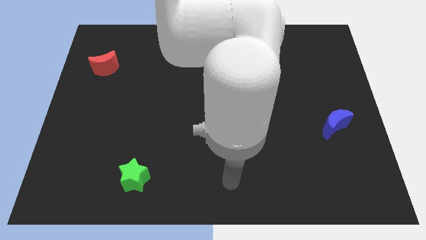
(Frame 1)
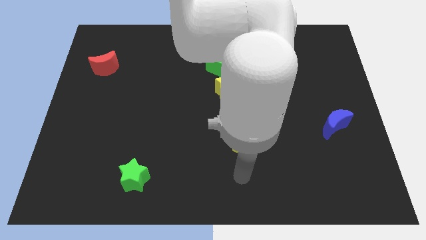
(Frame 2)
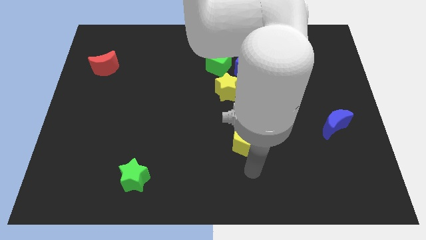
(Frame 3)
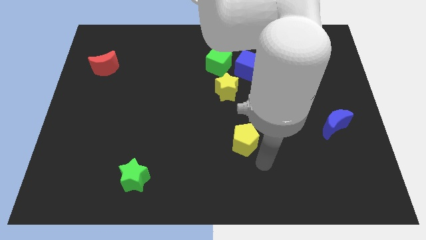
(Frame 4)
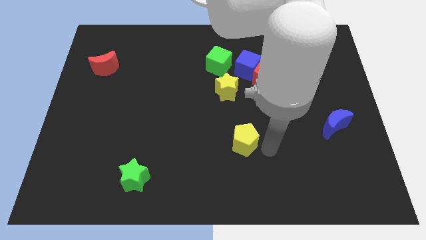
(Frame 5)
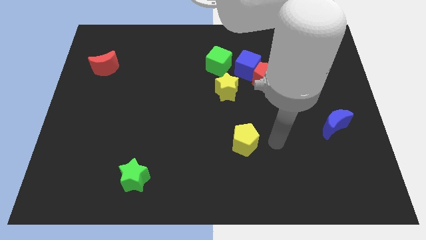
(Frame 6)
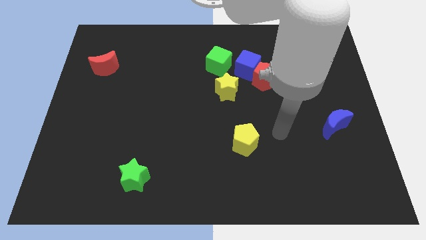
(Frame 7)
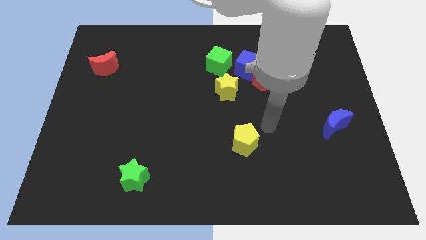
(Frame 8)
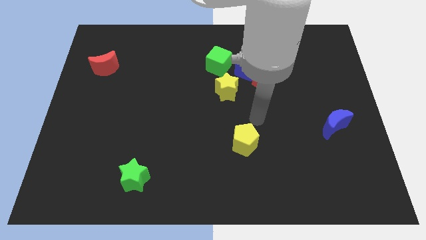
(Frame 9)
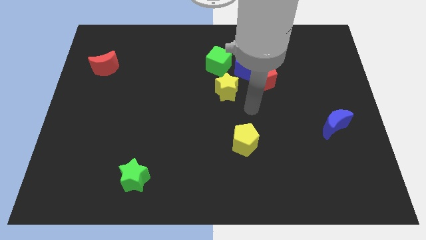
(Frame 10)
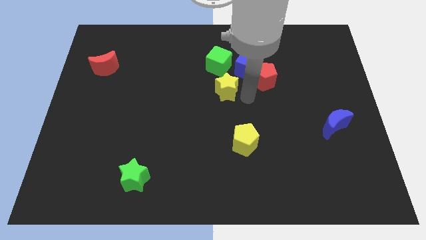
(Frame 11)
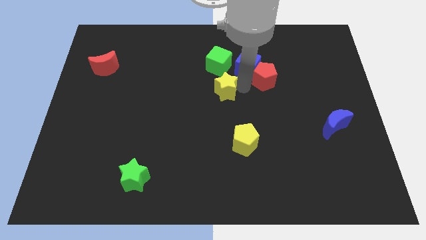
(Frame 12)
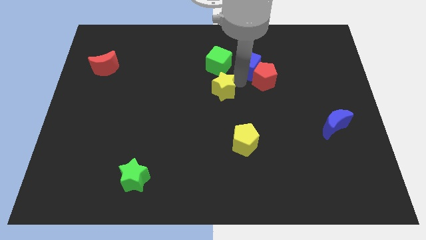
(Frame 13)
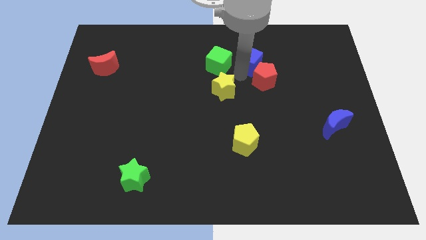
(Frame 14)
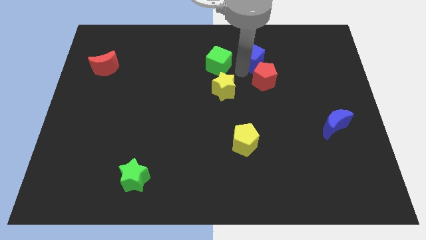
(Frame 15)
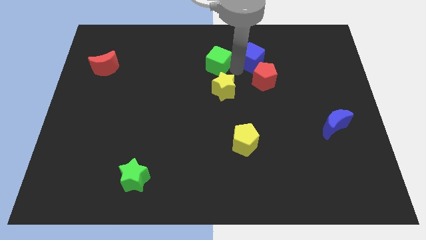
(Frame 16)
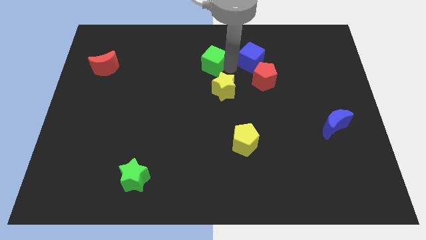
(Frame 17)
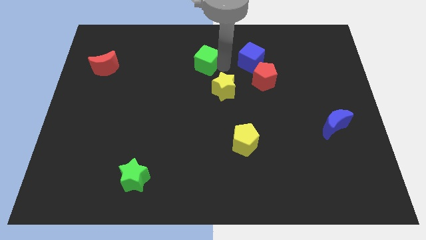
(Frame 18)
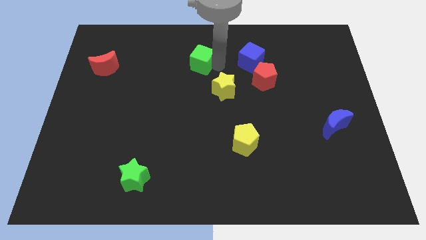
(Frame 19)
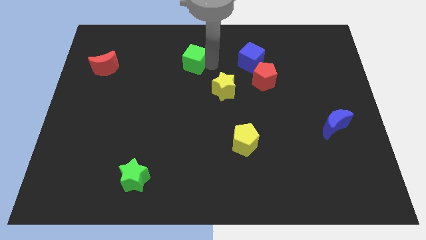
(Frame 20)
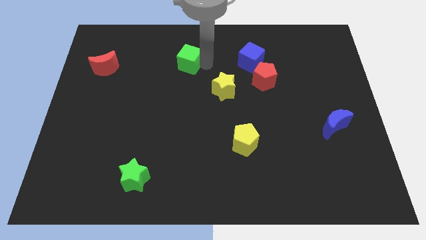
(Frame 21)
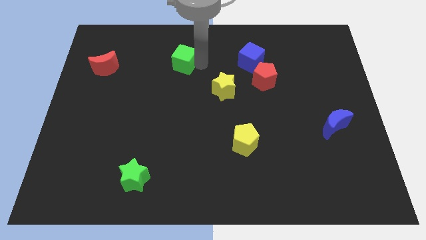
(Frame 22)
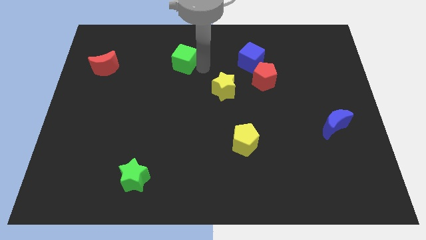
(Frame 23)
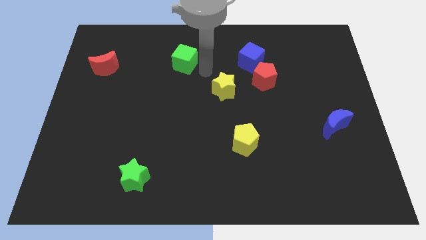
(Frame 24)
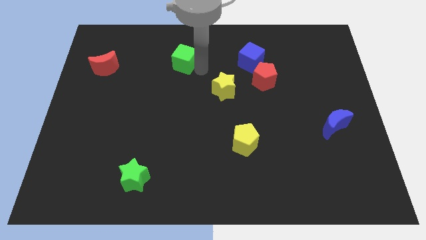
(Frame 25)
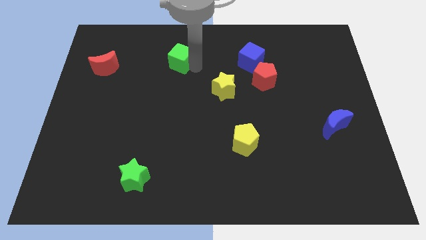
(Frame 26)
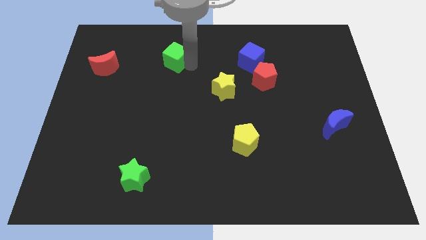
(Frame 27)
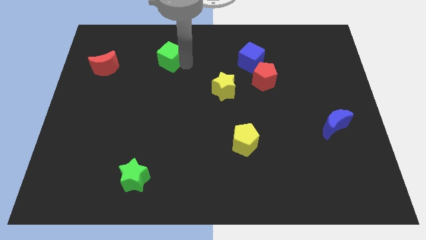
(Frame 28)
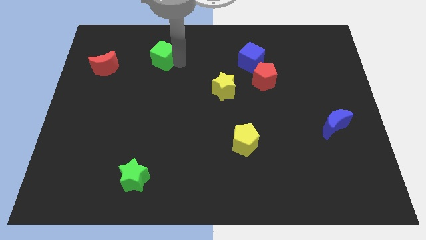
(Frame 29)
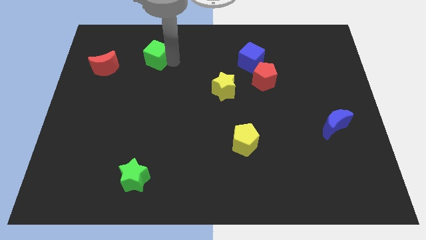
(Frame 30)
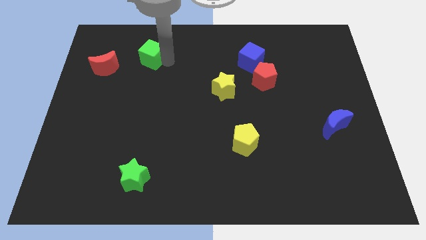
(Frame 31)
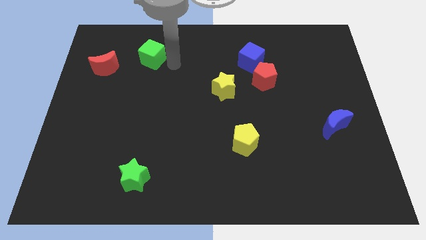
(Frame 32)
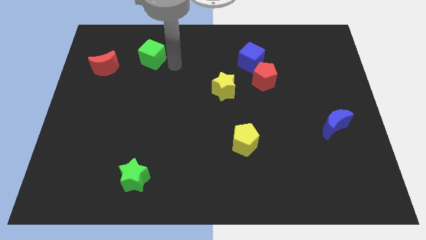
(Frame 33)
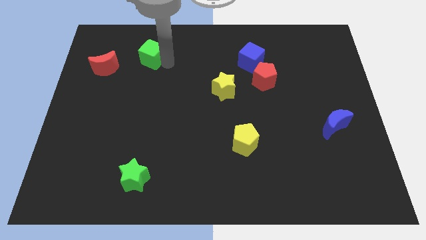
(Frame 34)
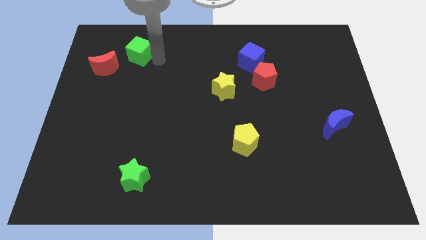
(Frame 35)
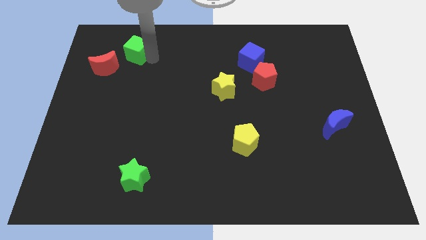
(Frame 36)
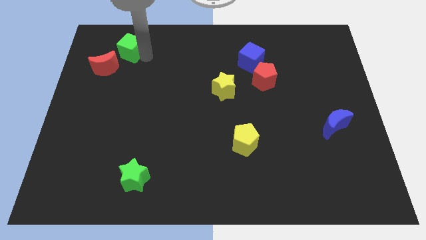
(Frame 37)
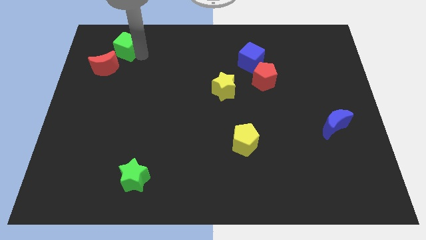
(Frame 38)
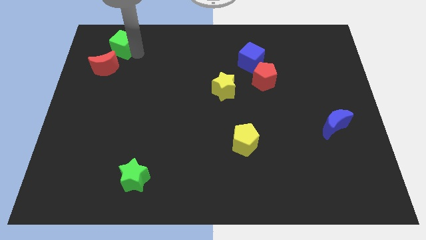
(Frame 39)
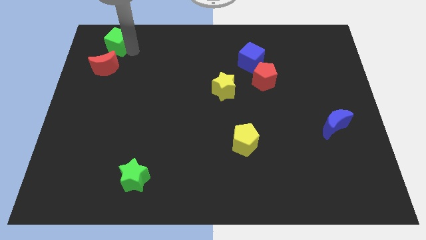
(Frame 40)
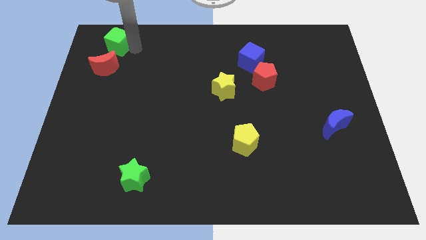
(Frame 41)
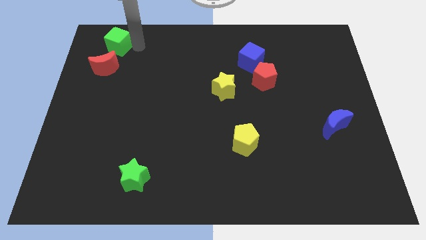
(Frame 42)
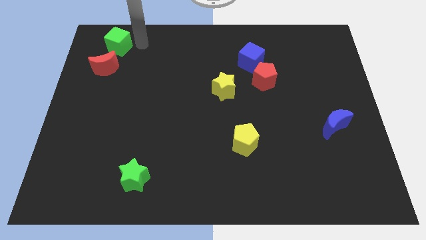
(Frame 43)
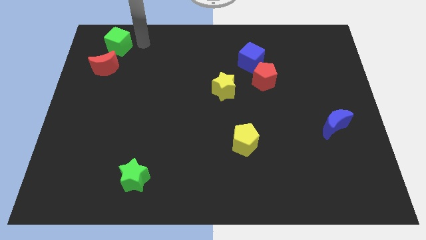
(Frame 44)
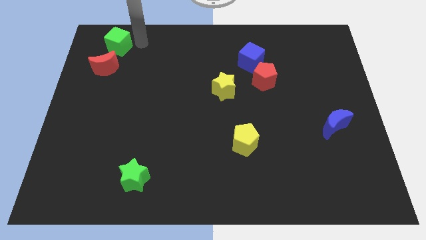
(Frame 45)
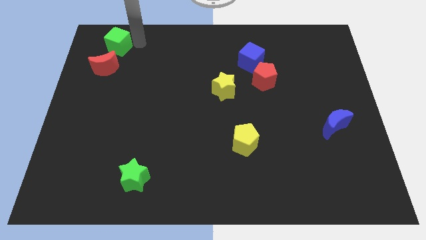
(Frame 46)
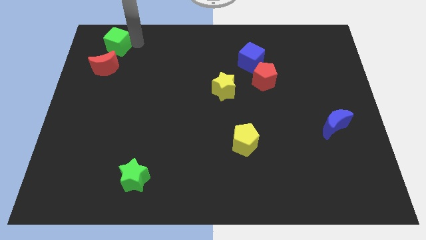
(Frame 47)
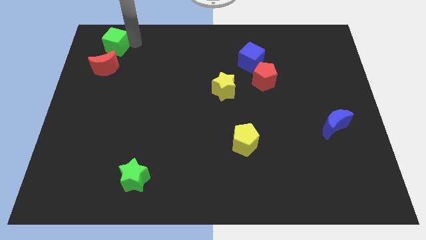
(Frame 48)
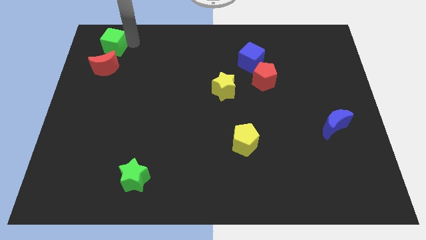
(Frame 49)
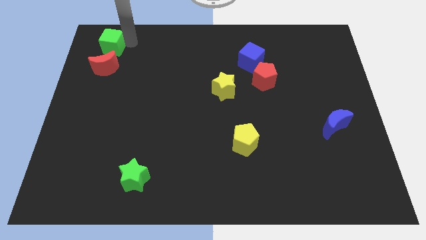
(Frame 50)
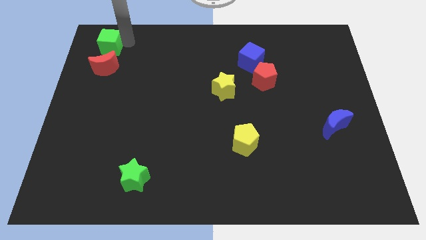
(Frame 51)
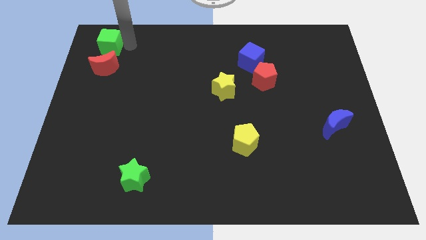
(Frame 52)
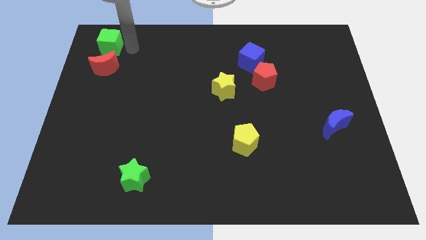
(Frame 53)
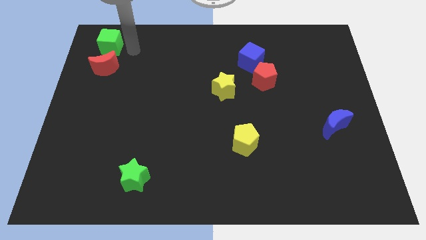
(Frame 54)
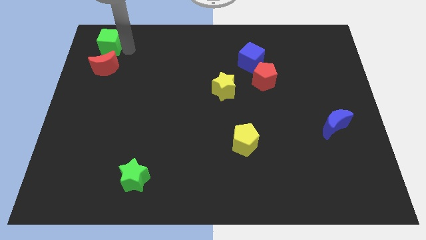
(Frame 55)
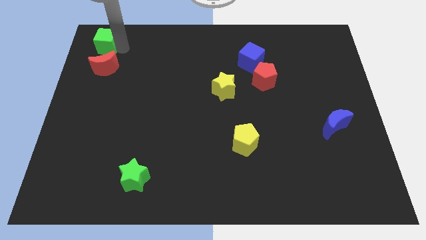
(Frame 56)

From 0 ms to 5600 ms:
move the green cube to the top left of the board

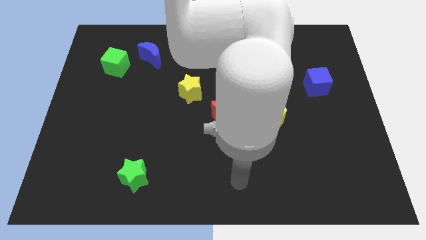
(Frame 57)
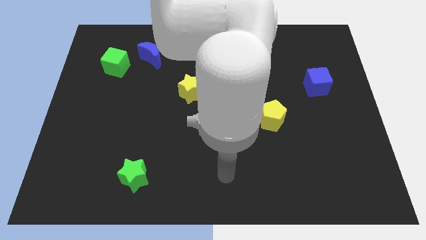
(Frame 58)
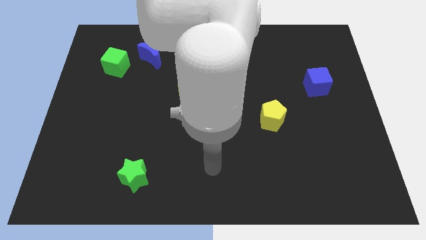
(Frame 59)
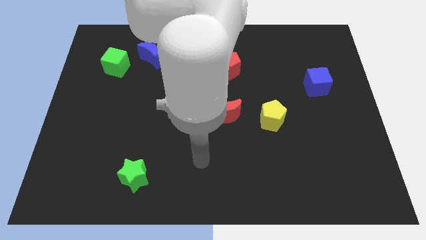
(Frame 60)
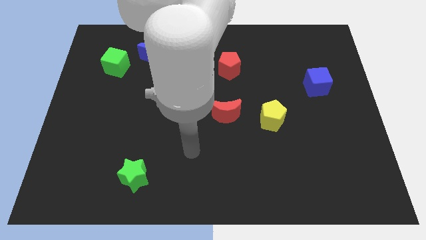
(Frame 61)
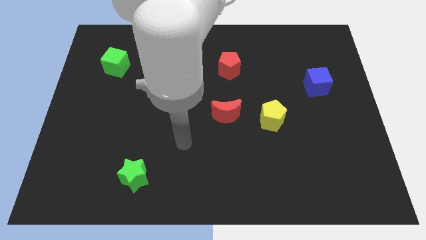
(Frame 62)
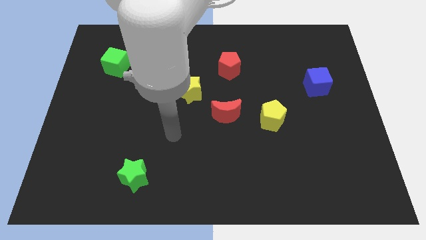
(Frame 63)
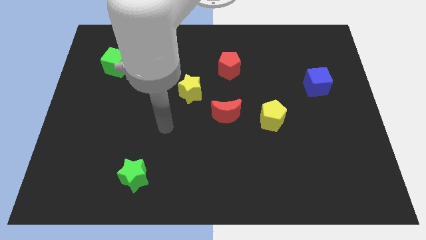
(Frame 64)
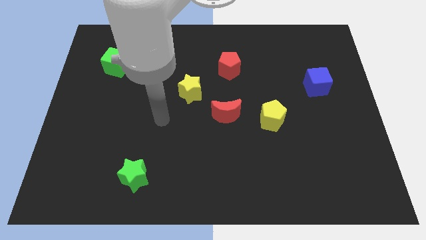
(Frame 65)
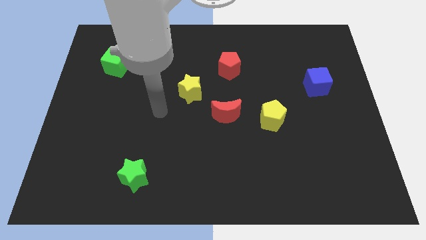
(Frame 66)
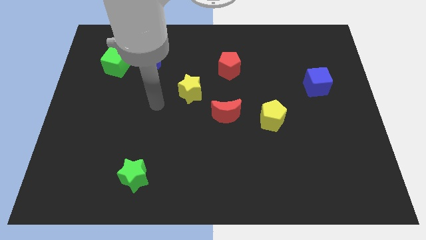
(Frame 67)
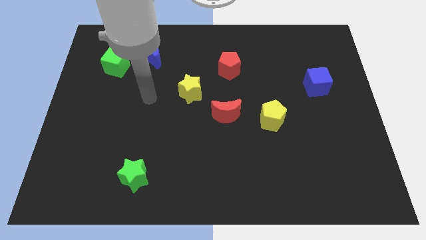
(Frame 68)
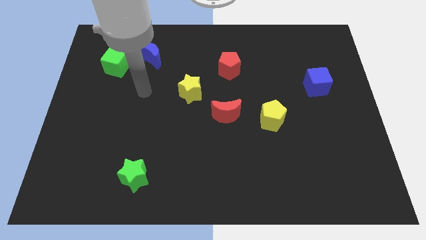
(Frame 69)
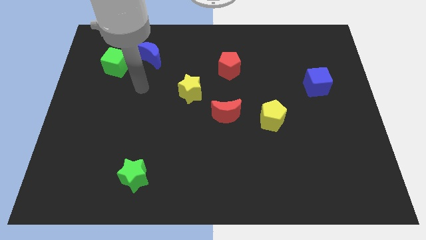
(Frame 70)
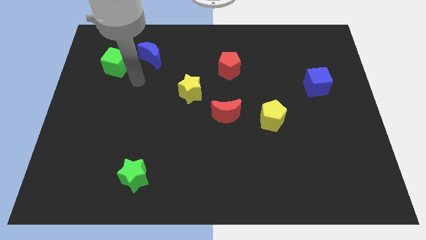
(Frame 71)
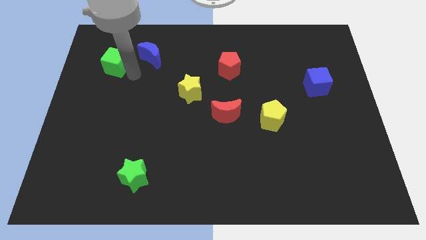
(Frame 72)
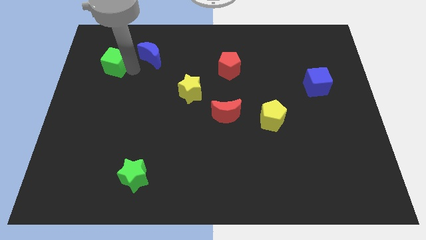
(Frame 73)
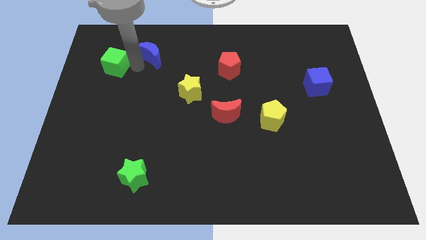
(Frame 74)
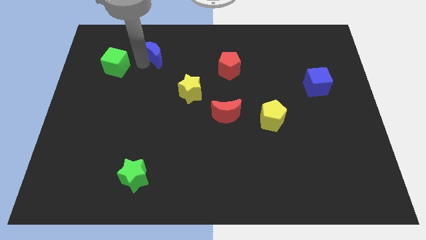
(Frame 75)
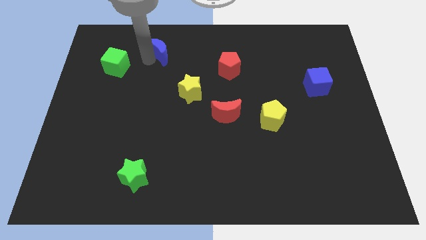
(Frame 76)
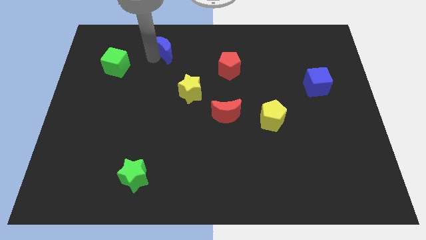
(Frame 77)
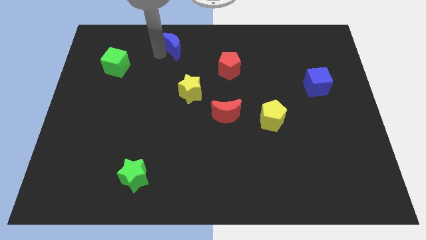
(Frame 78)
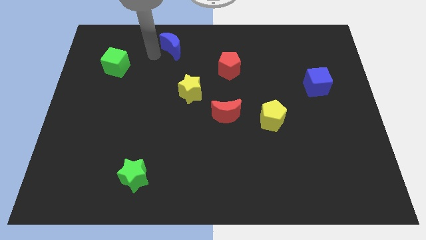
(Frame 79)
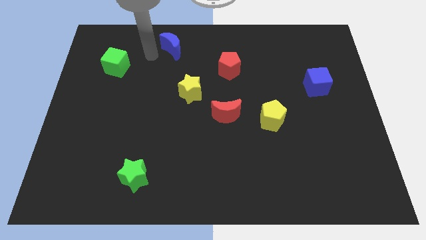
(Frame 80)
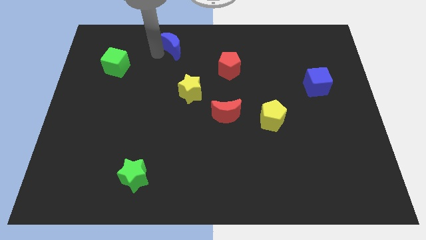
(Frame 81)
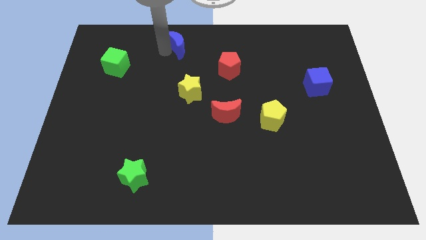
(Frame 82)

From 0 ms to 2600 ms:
push the blue moon to the top side
